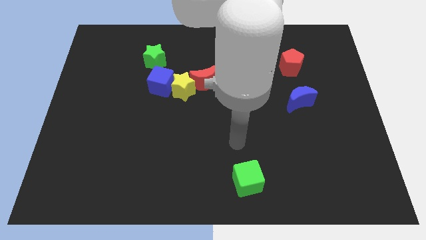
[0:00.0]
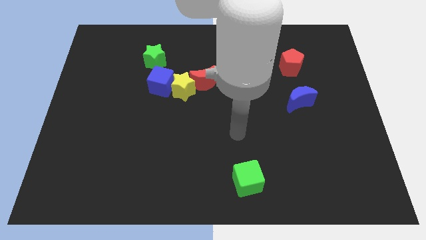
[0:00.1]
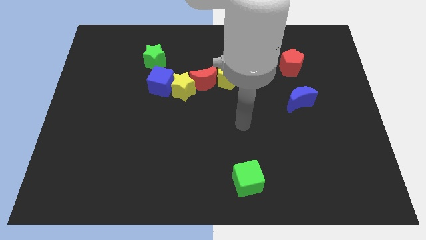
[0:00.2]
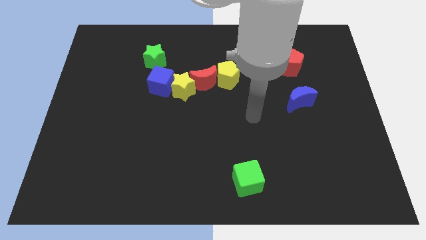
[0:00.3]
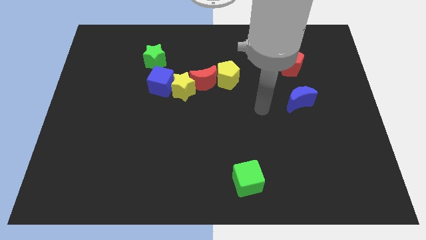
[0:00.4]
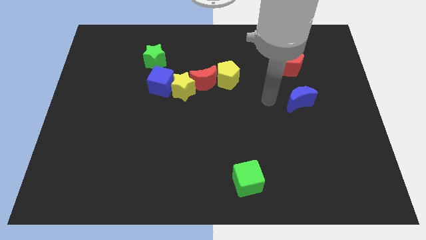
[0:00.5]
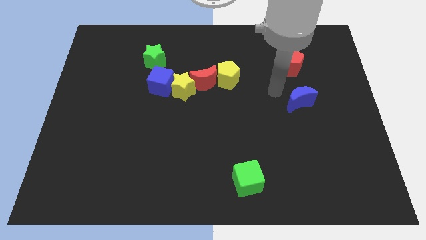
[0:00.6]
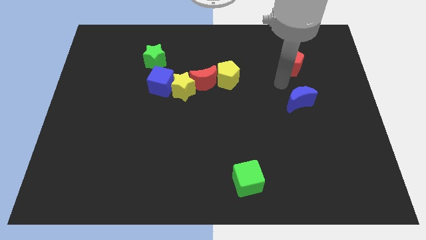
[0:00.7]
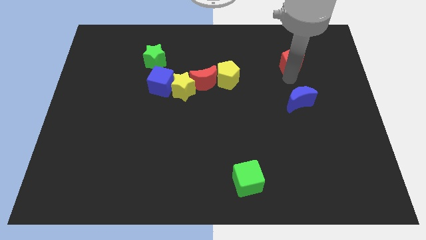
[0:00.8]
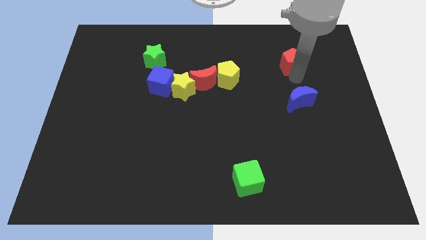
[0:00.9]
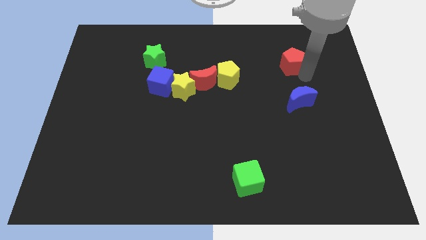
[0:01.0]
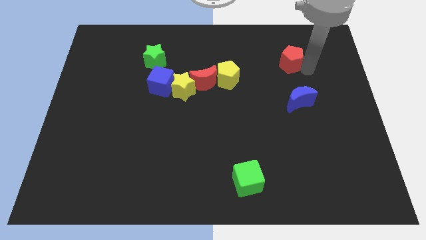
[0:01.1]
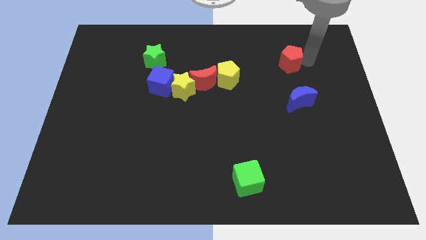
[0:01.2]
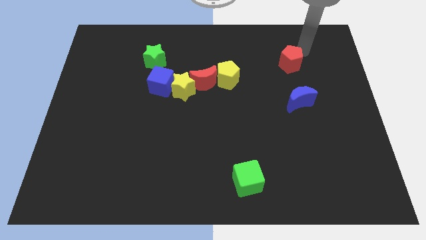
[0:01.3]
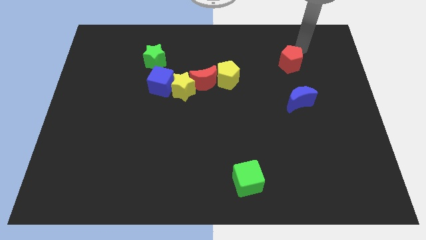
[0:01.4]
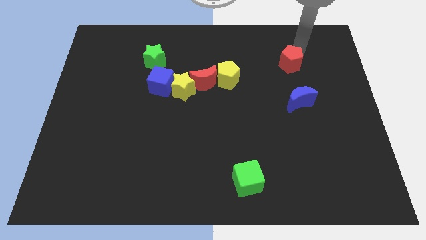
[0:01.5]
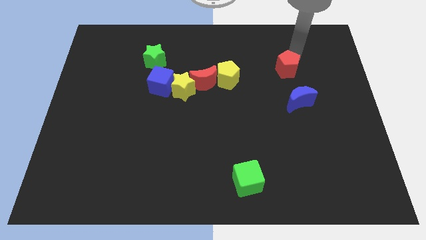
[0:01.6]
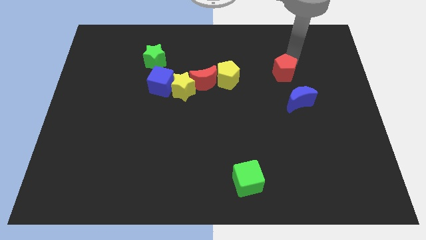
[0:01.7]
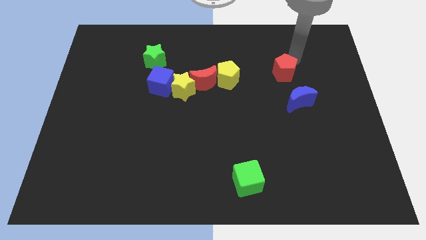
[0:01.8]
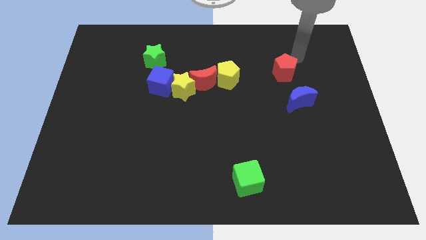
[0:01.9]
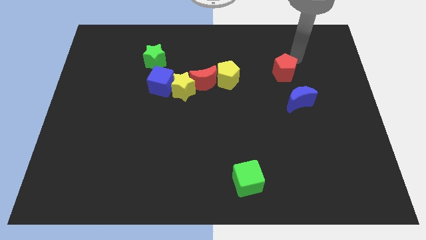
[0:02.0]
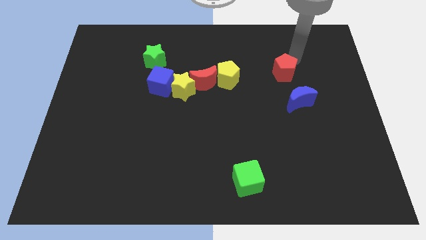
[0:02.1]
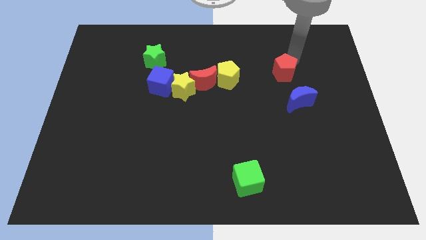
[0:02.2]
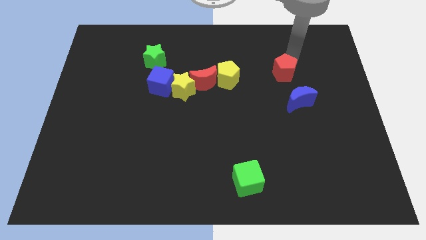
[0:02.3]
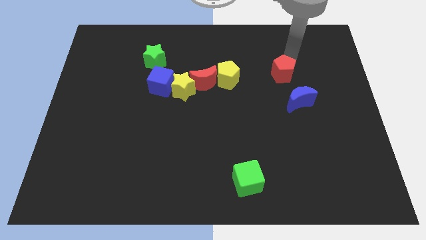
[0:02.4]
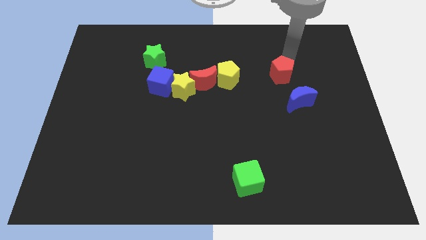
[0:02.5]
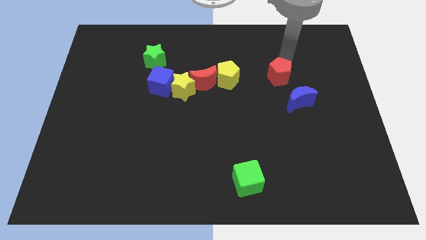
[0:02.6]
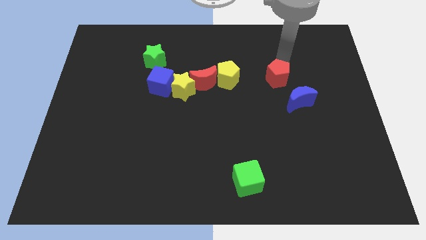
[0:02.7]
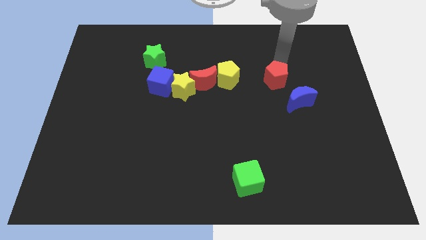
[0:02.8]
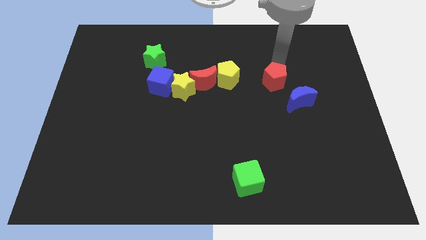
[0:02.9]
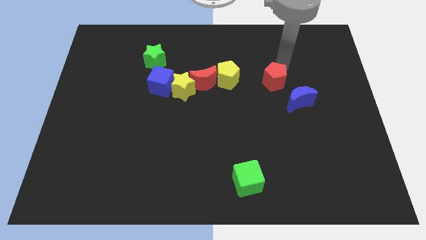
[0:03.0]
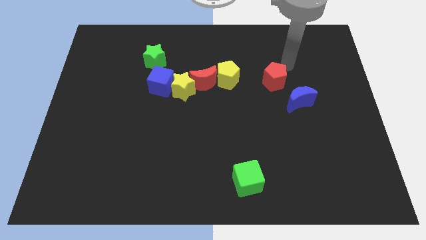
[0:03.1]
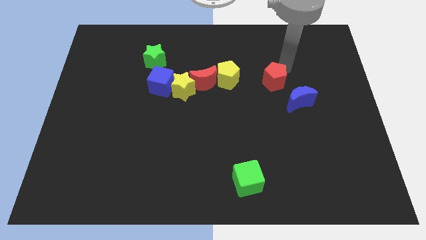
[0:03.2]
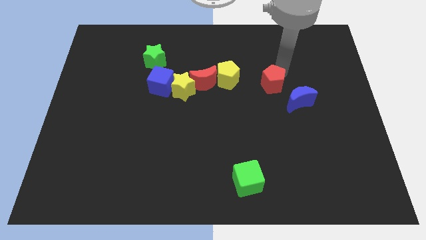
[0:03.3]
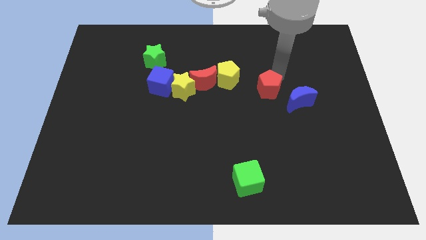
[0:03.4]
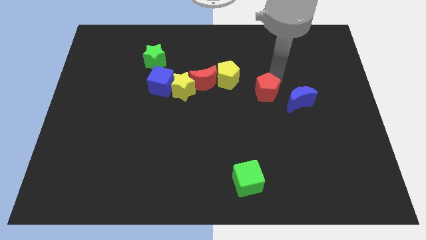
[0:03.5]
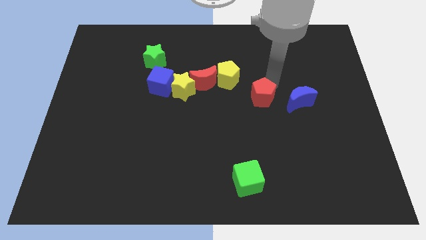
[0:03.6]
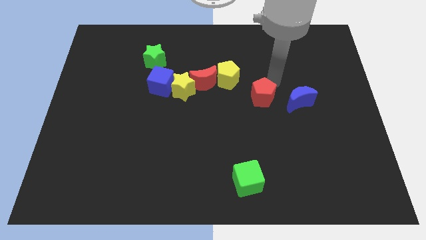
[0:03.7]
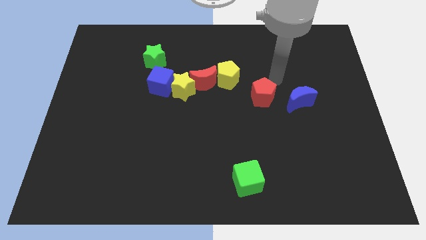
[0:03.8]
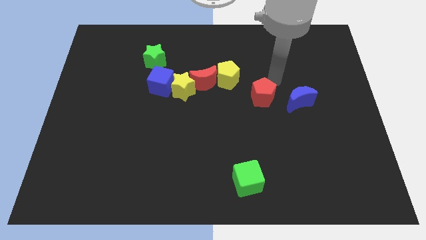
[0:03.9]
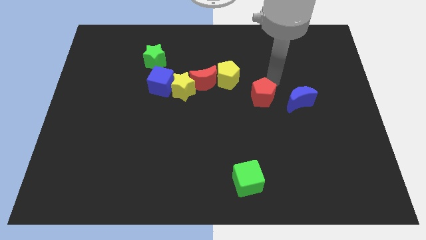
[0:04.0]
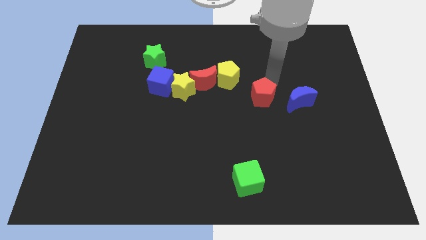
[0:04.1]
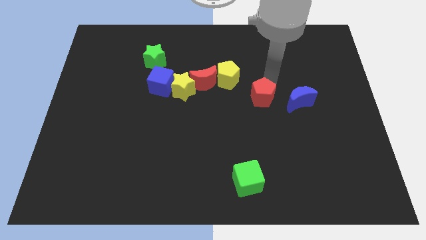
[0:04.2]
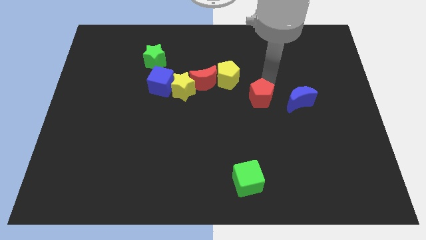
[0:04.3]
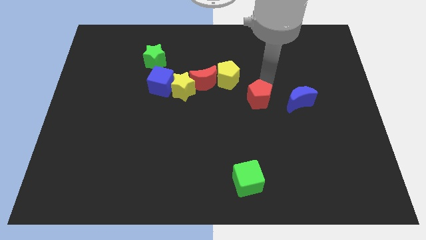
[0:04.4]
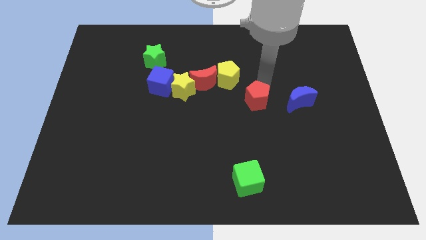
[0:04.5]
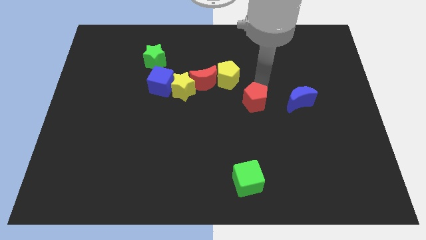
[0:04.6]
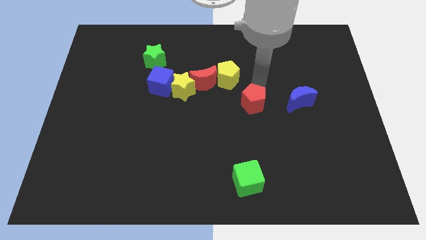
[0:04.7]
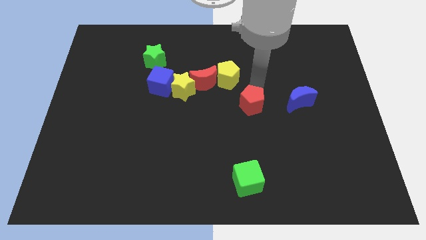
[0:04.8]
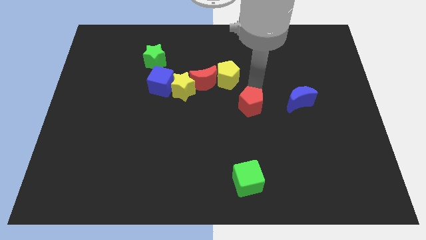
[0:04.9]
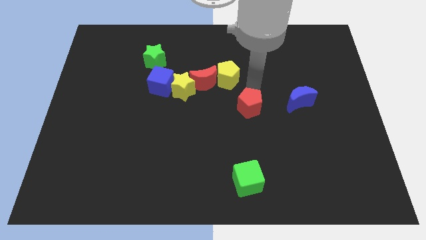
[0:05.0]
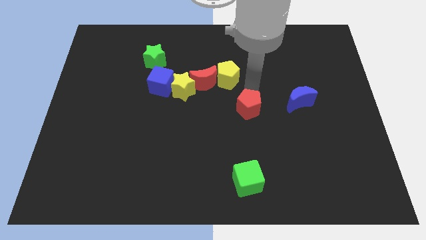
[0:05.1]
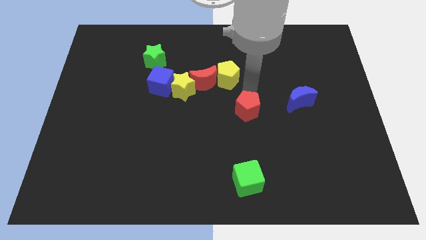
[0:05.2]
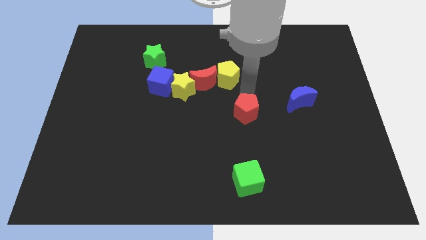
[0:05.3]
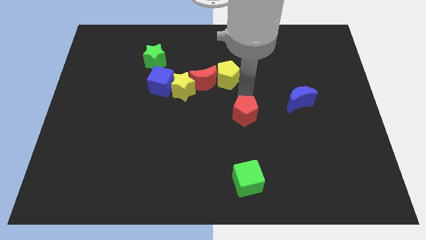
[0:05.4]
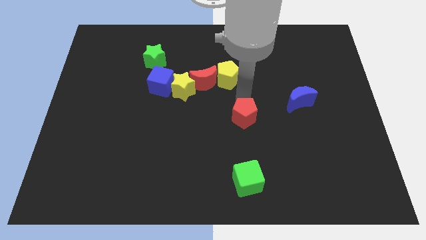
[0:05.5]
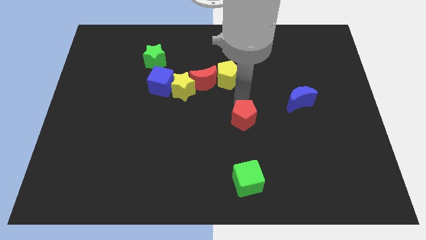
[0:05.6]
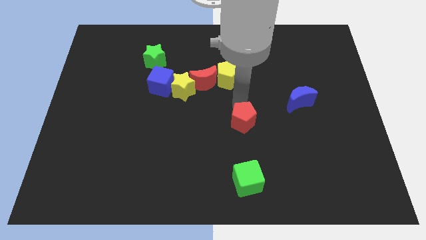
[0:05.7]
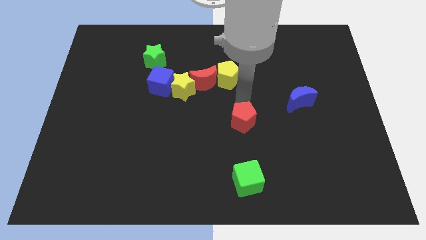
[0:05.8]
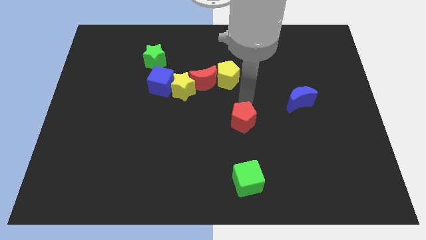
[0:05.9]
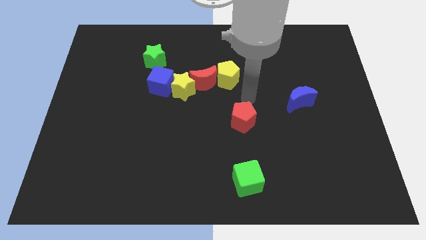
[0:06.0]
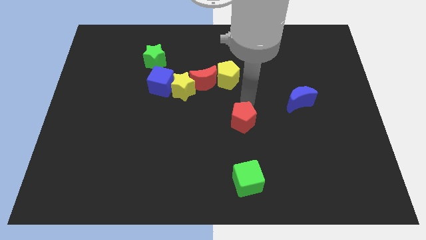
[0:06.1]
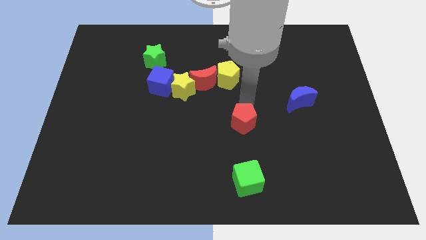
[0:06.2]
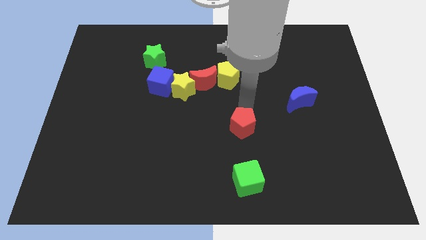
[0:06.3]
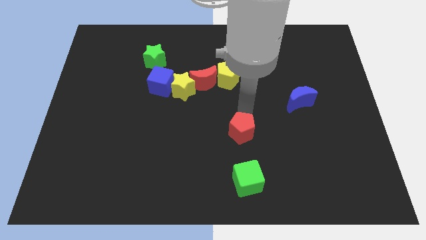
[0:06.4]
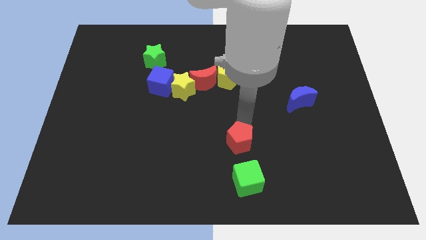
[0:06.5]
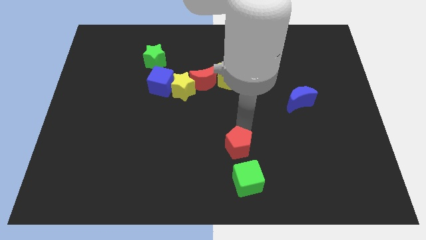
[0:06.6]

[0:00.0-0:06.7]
put the red pentagon to the top left side of the green cube
